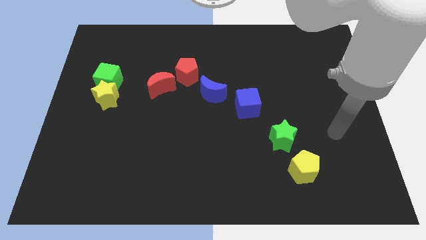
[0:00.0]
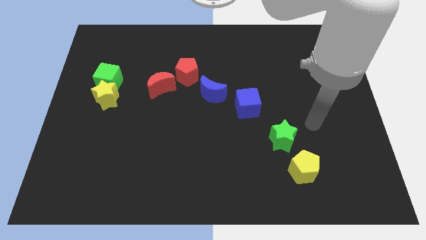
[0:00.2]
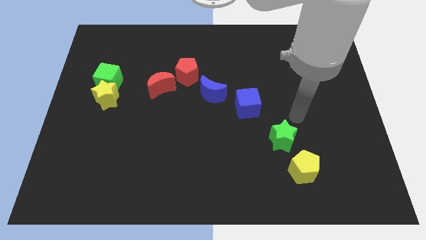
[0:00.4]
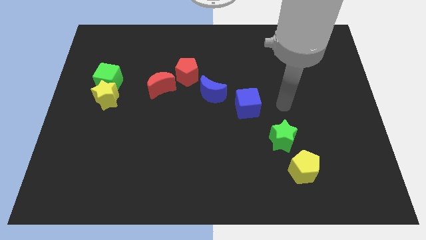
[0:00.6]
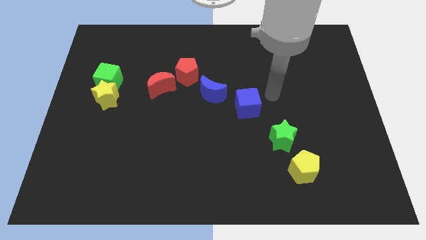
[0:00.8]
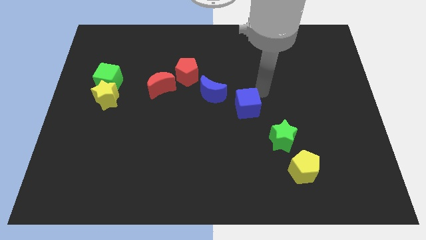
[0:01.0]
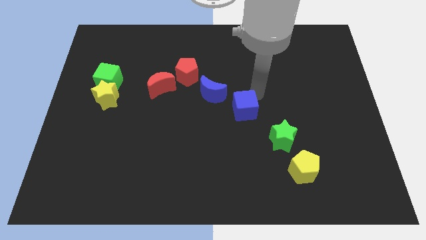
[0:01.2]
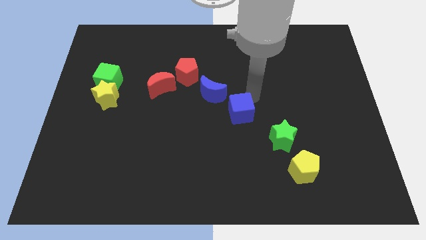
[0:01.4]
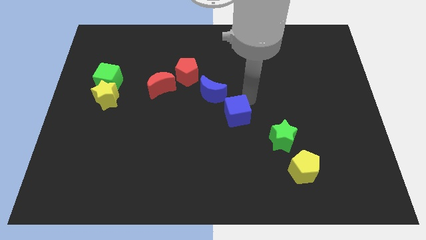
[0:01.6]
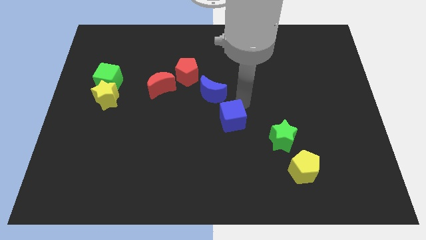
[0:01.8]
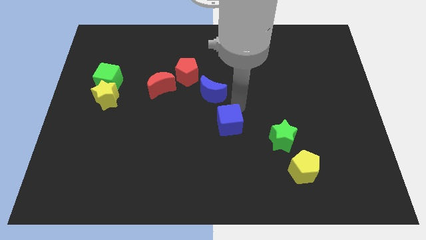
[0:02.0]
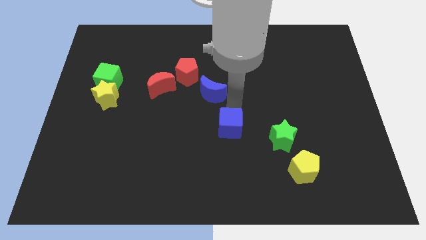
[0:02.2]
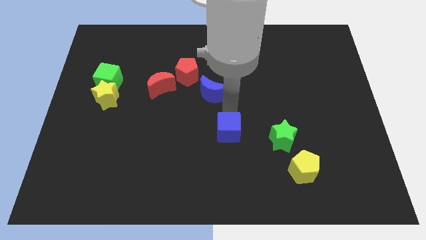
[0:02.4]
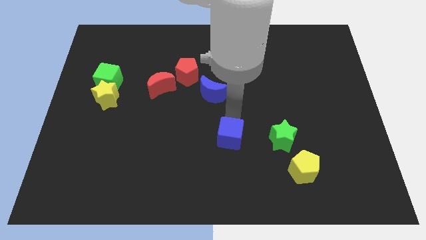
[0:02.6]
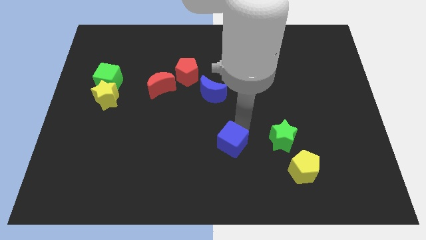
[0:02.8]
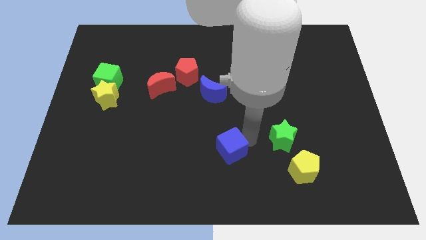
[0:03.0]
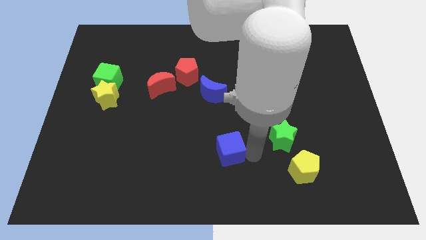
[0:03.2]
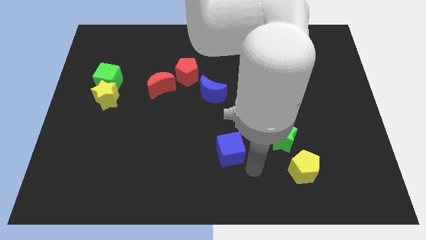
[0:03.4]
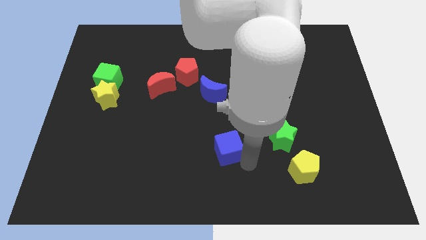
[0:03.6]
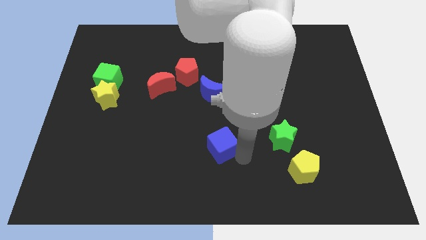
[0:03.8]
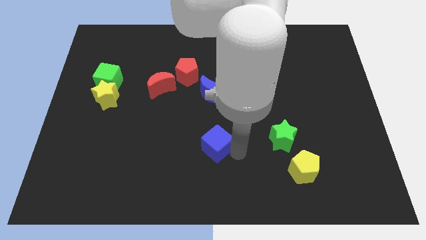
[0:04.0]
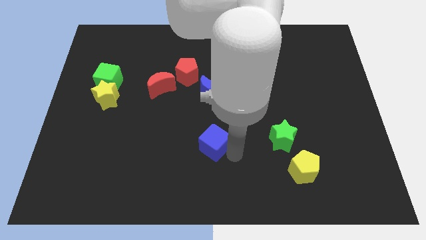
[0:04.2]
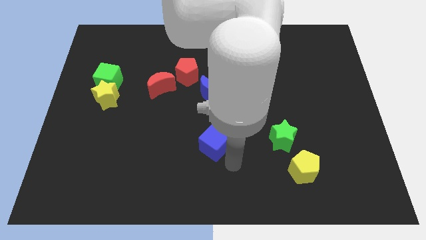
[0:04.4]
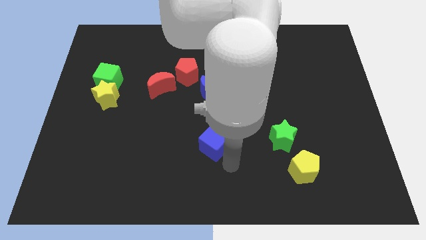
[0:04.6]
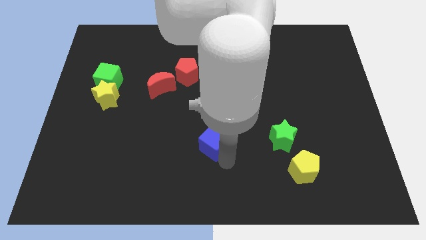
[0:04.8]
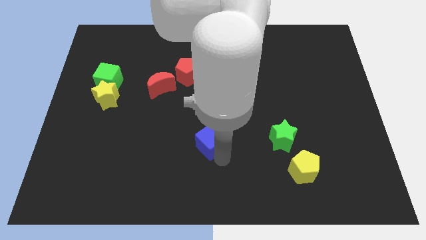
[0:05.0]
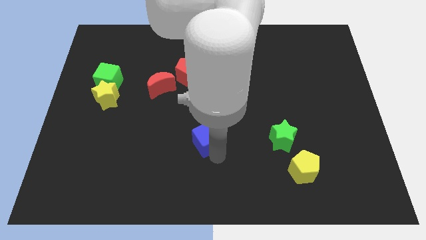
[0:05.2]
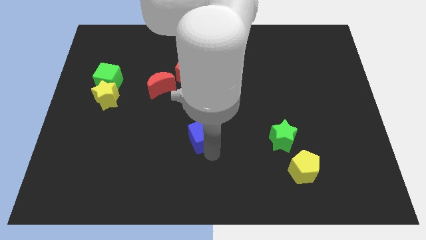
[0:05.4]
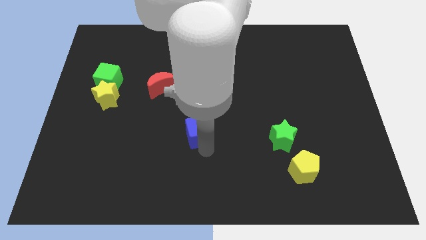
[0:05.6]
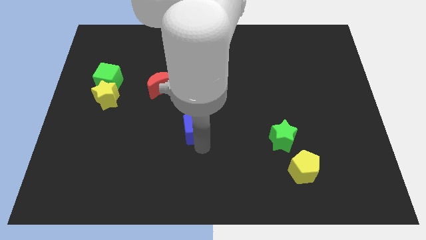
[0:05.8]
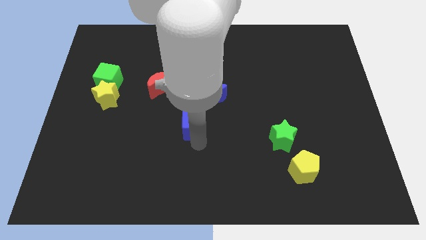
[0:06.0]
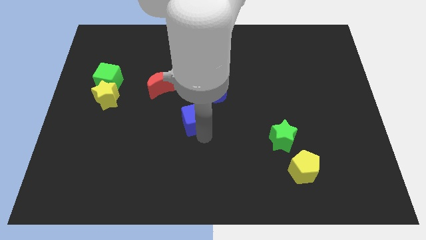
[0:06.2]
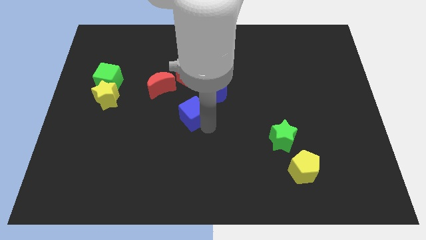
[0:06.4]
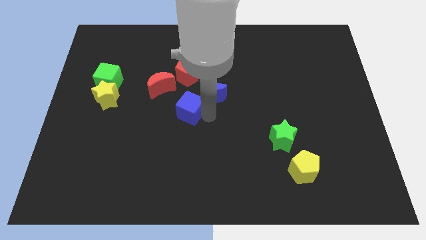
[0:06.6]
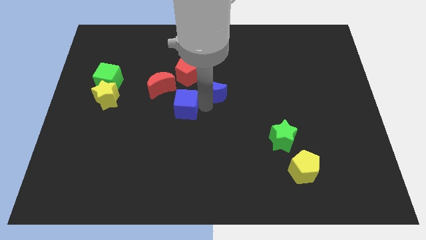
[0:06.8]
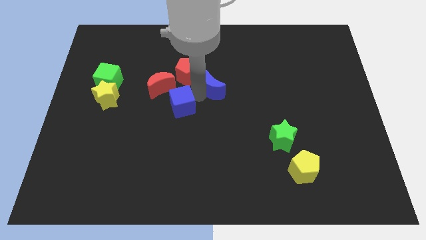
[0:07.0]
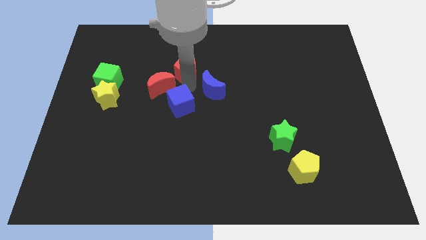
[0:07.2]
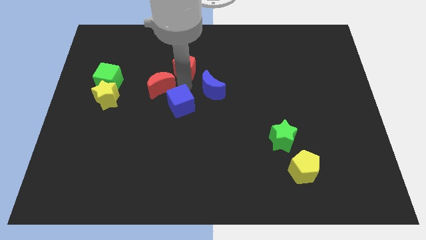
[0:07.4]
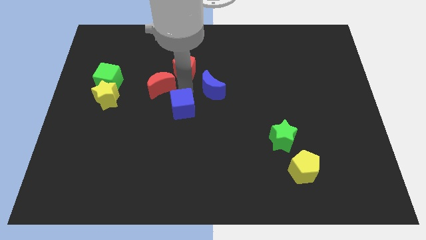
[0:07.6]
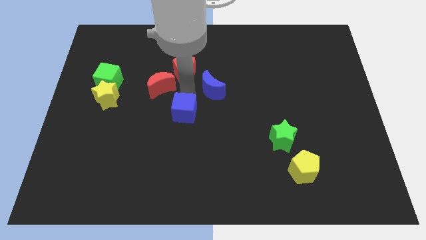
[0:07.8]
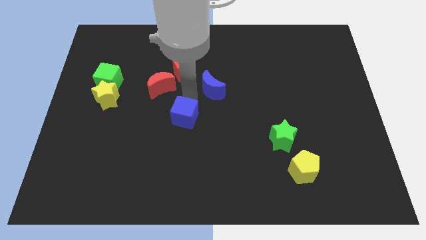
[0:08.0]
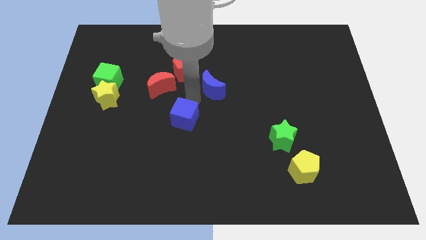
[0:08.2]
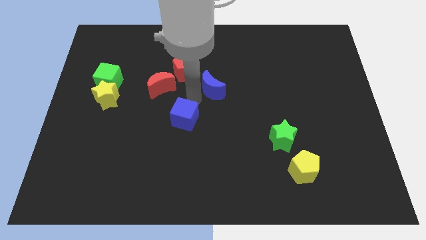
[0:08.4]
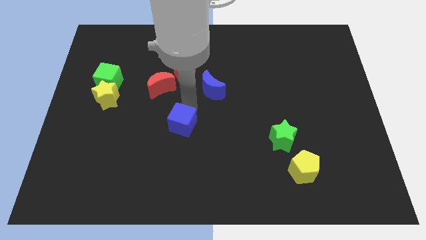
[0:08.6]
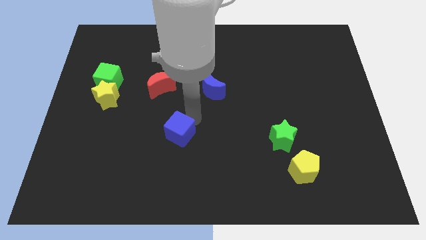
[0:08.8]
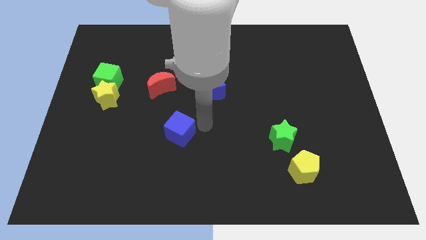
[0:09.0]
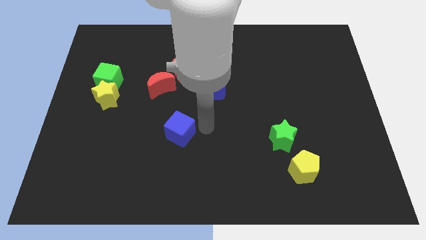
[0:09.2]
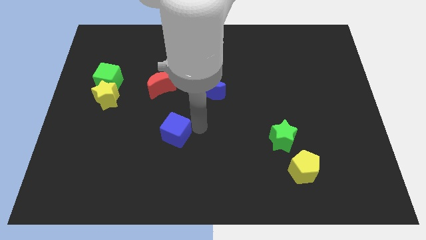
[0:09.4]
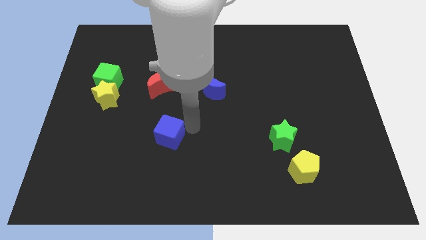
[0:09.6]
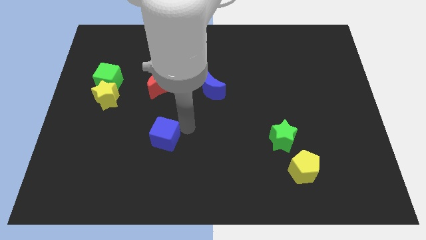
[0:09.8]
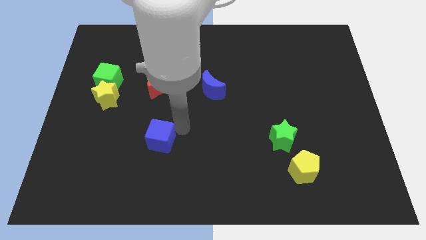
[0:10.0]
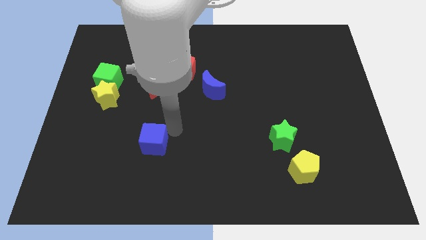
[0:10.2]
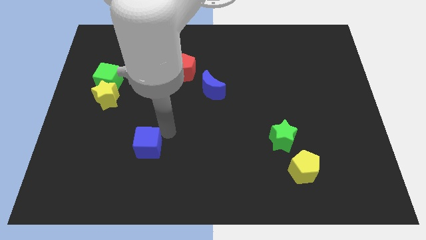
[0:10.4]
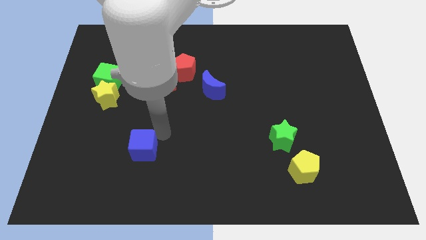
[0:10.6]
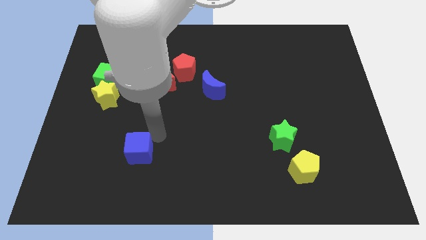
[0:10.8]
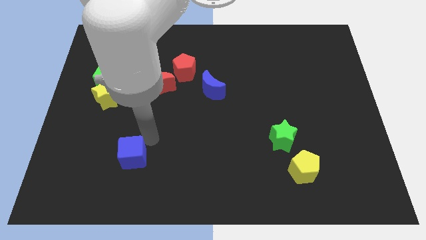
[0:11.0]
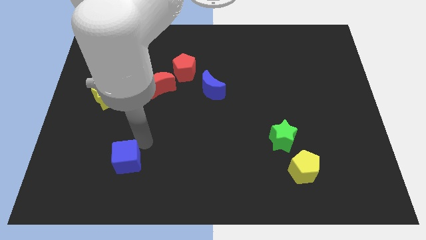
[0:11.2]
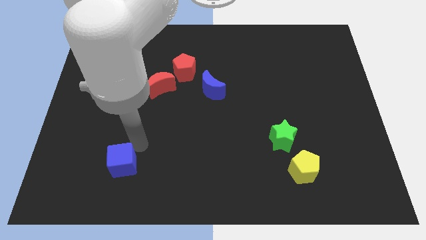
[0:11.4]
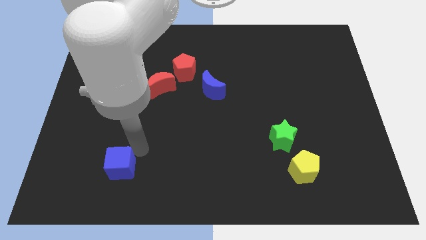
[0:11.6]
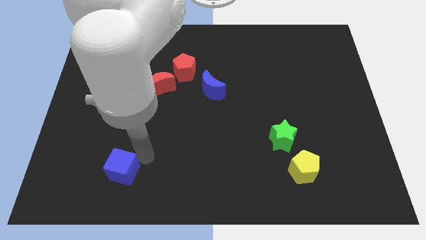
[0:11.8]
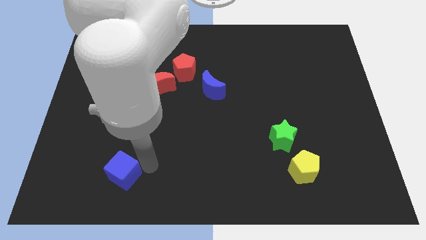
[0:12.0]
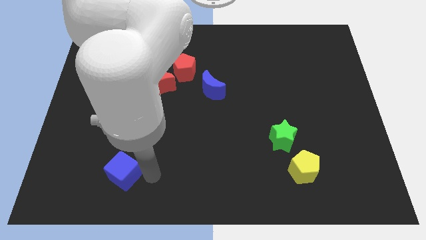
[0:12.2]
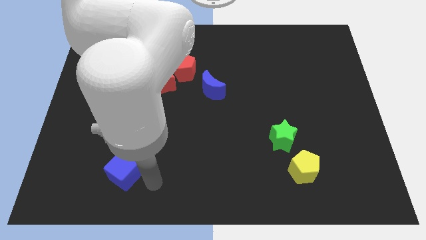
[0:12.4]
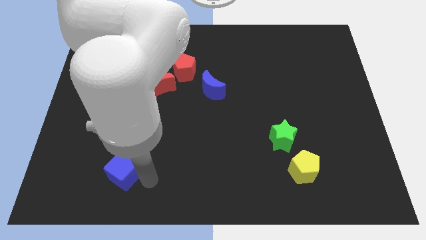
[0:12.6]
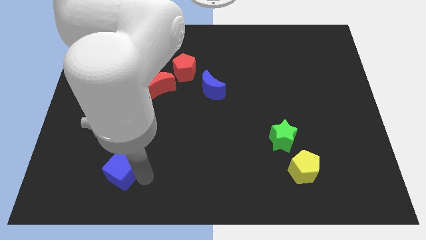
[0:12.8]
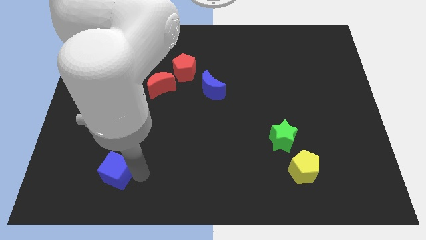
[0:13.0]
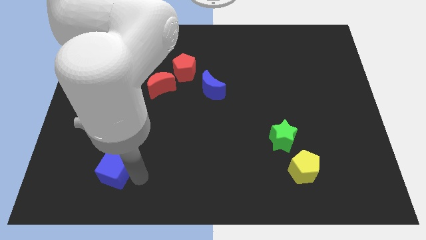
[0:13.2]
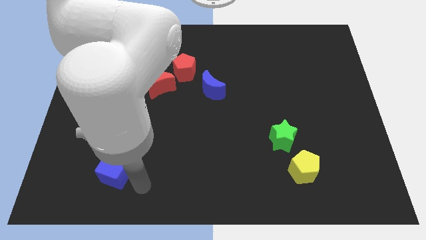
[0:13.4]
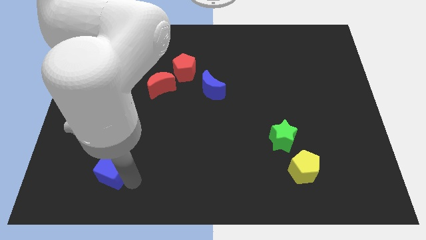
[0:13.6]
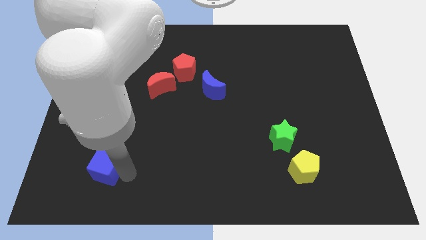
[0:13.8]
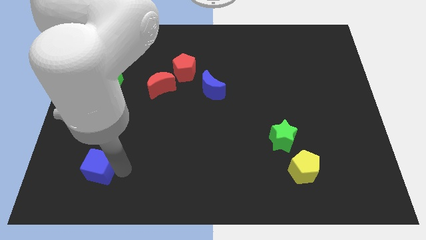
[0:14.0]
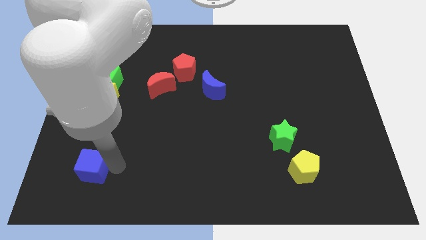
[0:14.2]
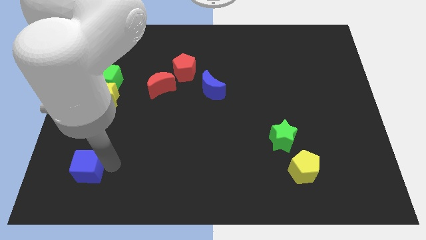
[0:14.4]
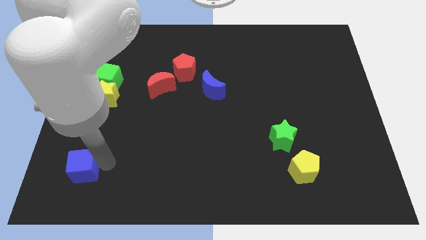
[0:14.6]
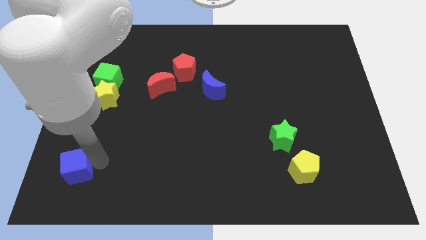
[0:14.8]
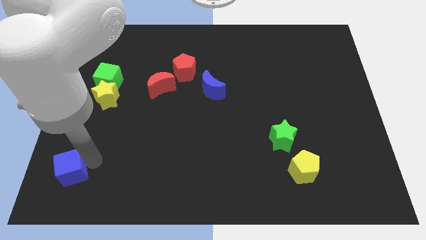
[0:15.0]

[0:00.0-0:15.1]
put the blue cube to the bottom left of the board
